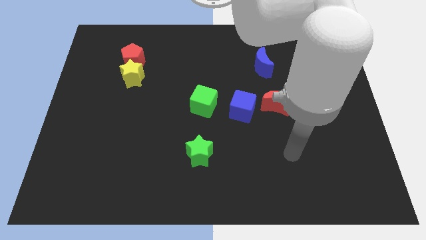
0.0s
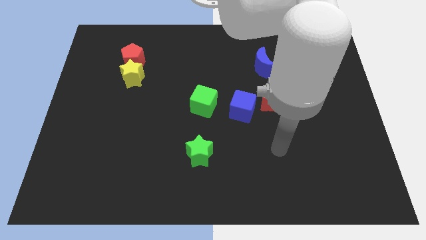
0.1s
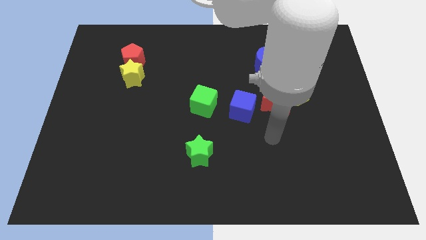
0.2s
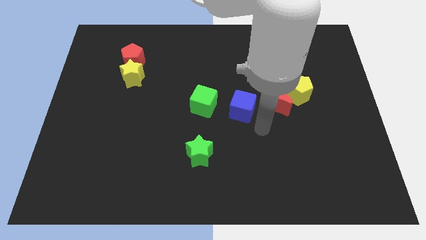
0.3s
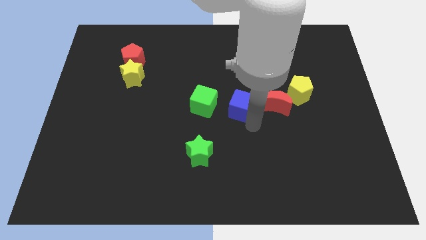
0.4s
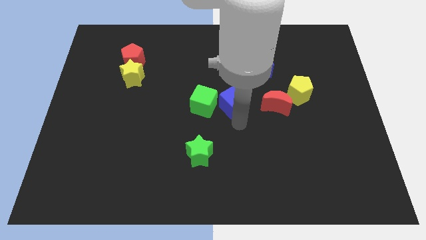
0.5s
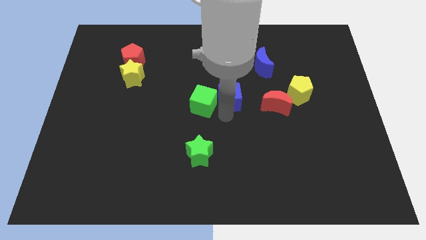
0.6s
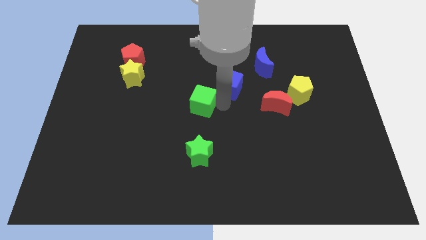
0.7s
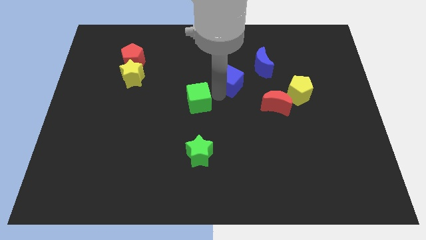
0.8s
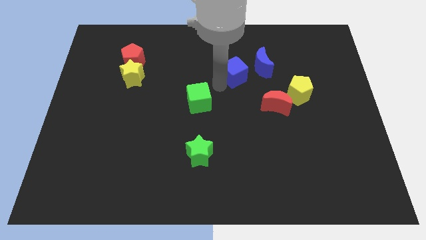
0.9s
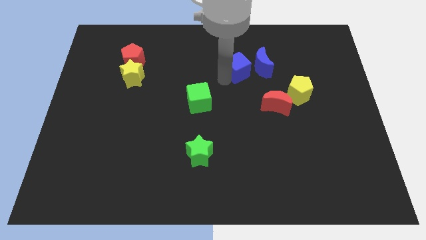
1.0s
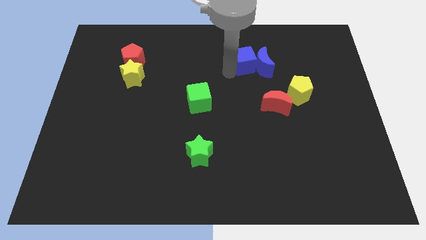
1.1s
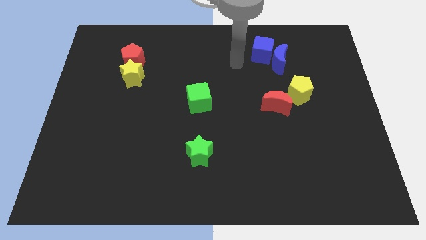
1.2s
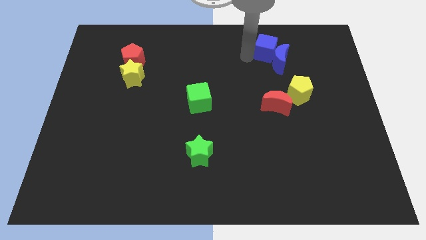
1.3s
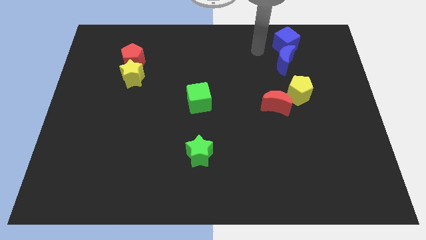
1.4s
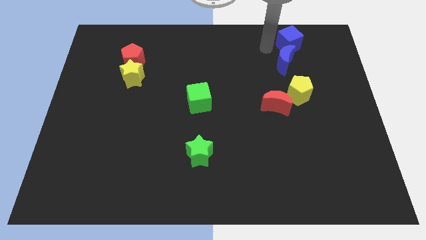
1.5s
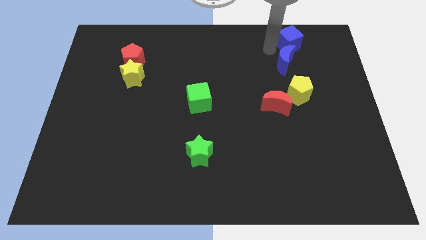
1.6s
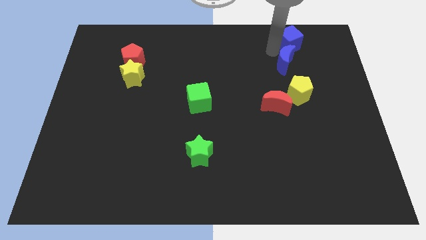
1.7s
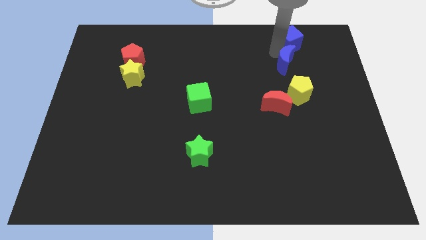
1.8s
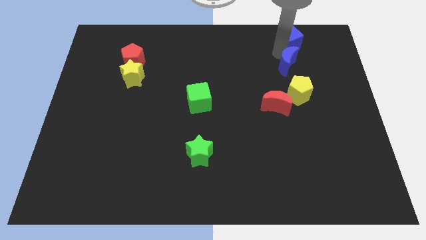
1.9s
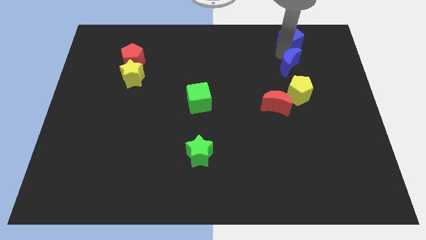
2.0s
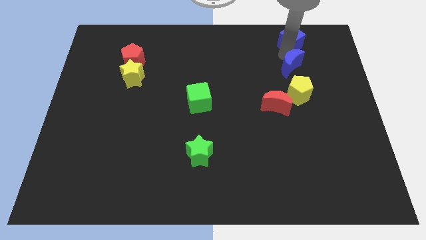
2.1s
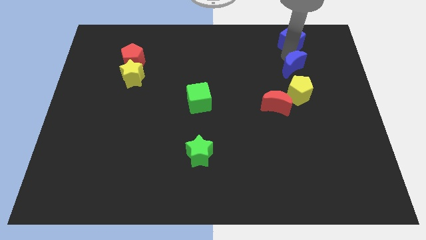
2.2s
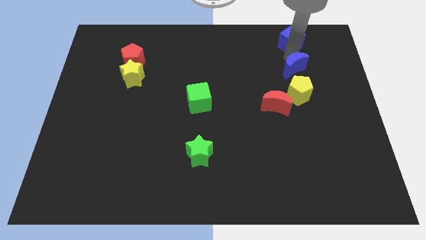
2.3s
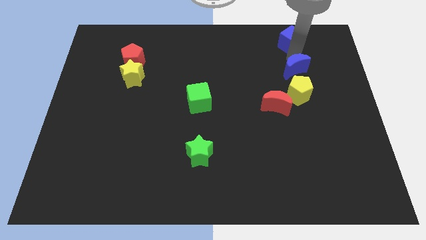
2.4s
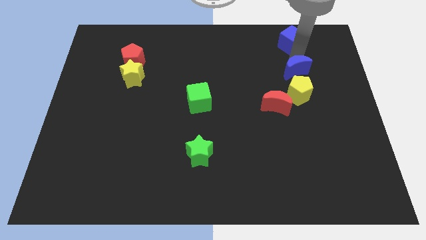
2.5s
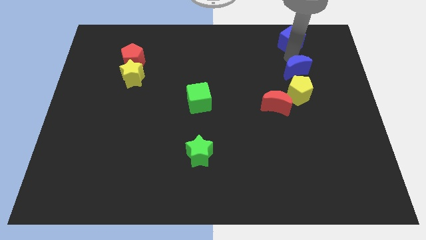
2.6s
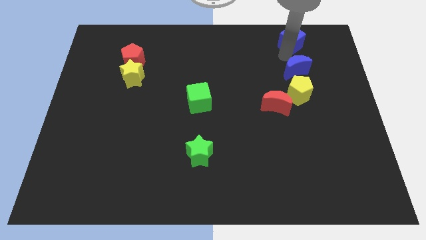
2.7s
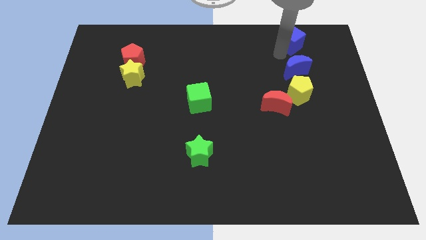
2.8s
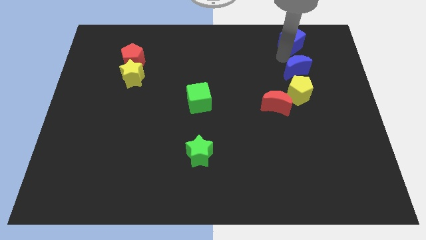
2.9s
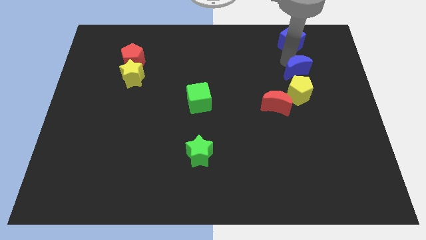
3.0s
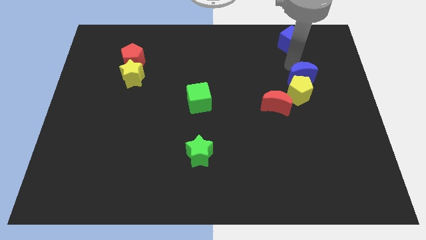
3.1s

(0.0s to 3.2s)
slightly push the blue moon diagonally downwards and right

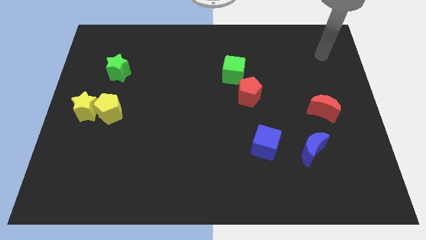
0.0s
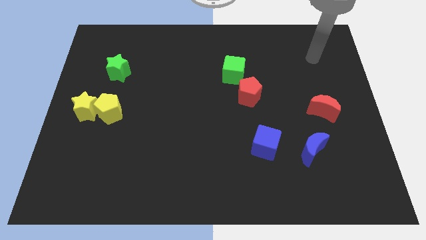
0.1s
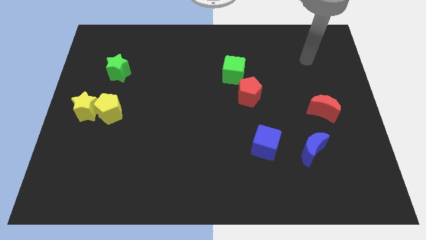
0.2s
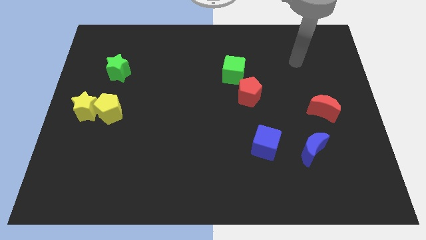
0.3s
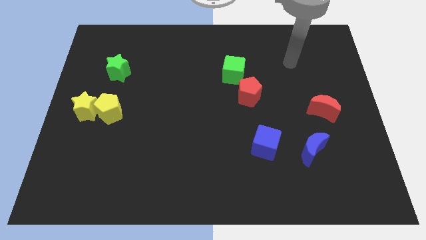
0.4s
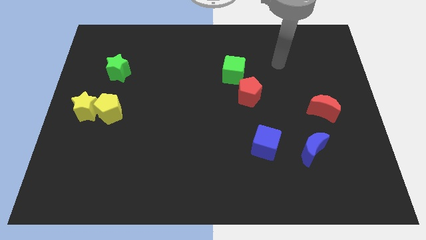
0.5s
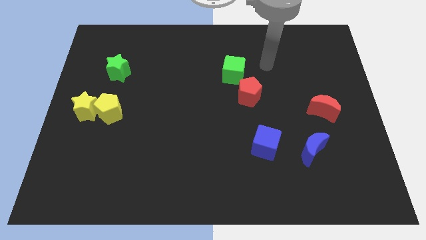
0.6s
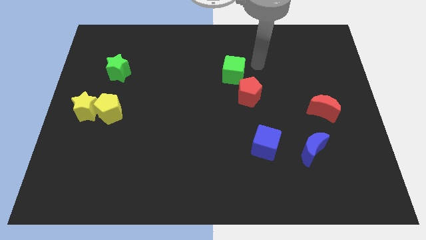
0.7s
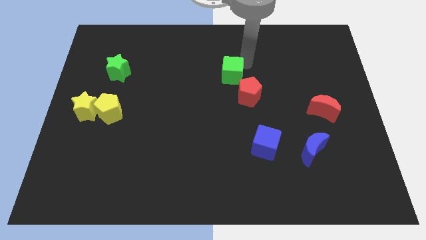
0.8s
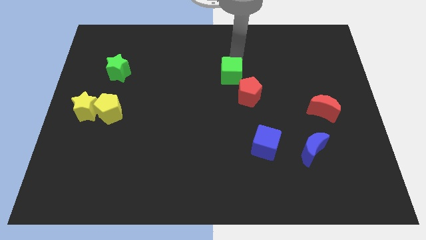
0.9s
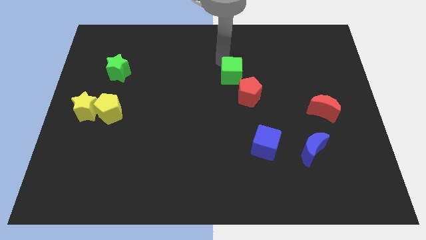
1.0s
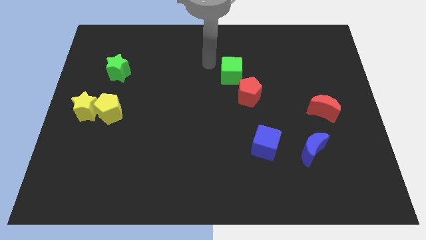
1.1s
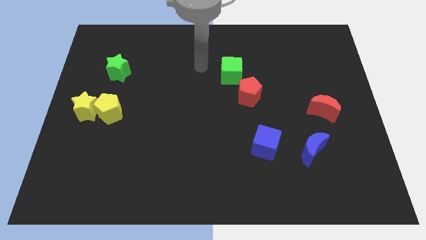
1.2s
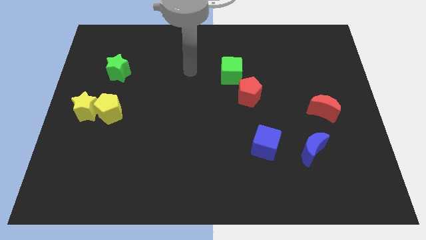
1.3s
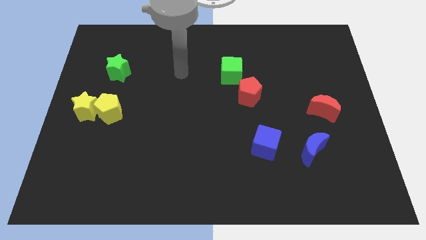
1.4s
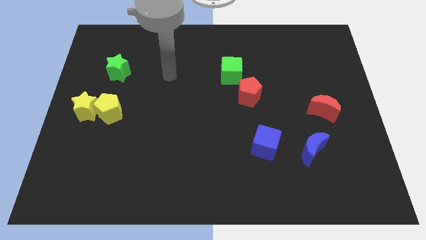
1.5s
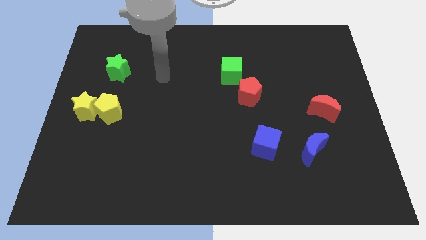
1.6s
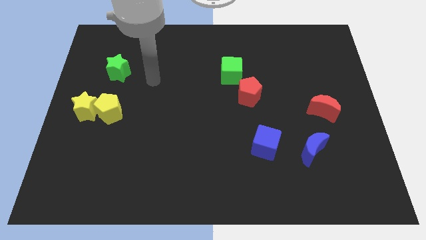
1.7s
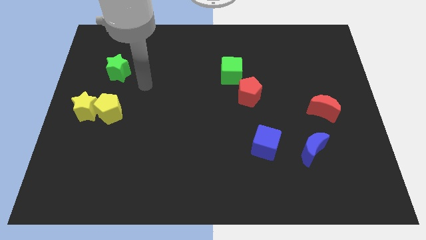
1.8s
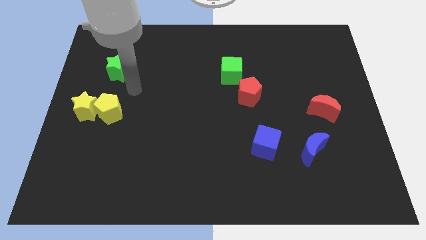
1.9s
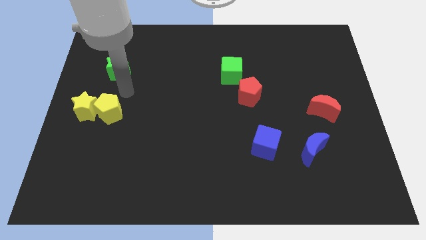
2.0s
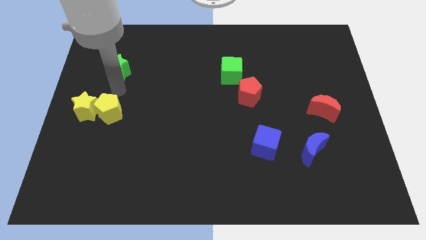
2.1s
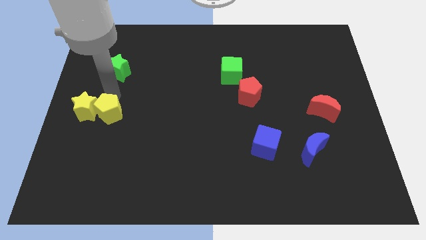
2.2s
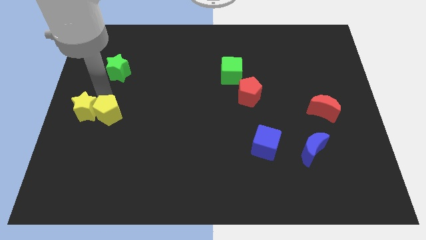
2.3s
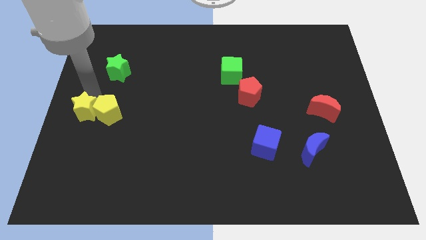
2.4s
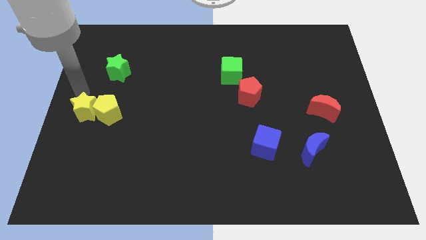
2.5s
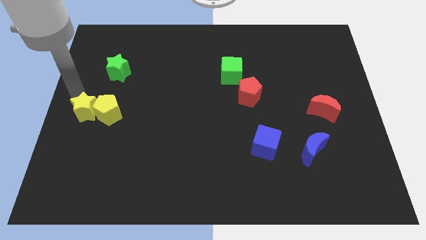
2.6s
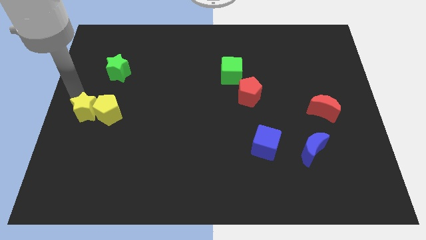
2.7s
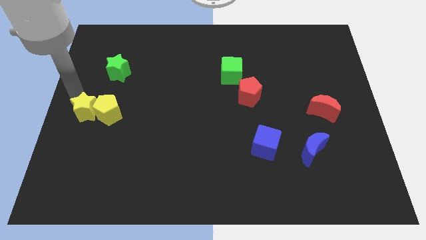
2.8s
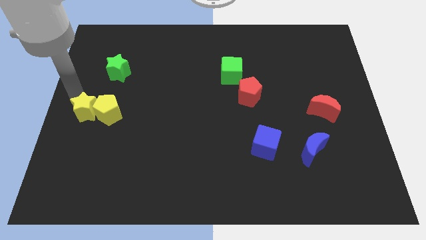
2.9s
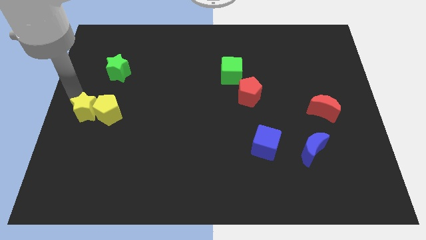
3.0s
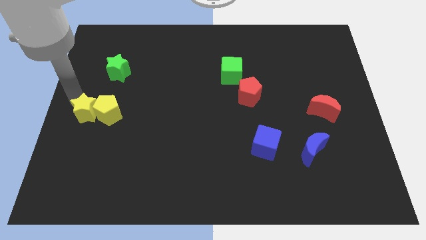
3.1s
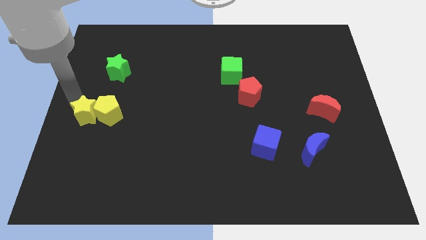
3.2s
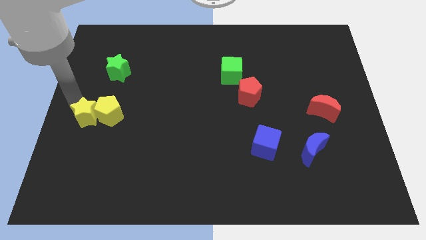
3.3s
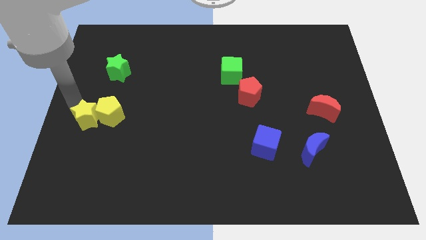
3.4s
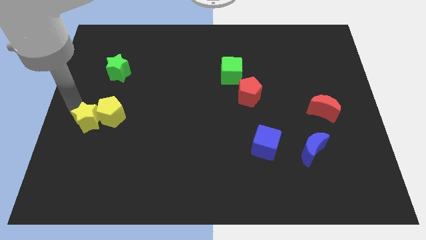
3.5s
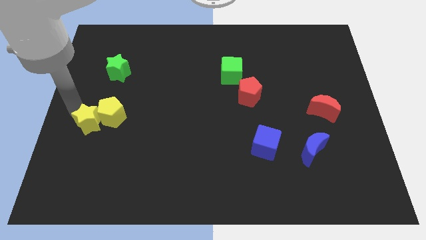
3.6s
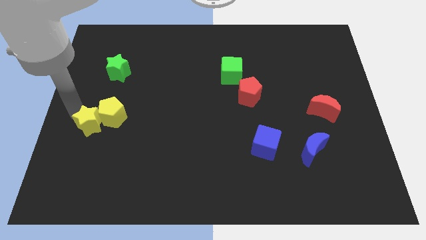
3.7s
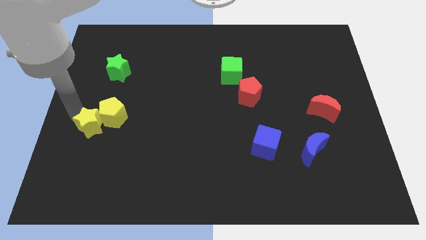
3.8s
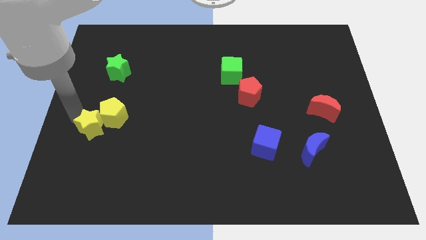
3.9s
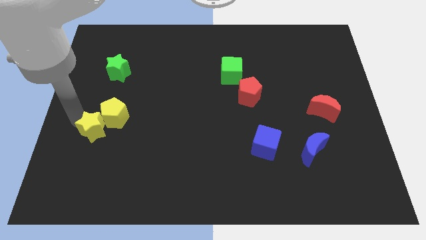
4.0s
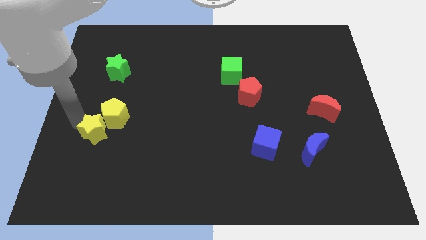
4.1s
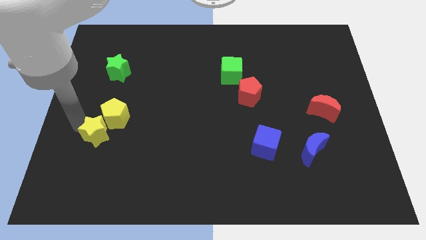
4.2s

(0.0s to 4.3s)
push the yellow star slightly down and right

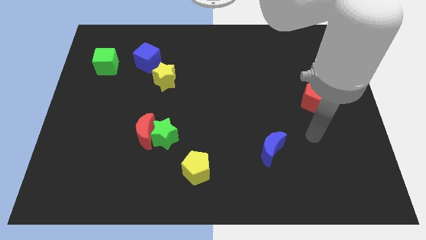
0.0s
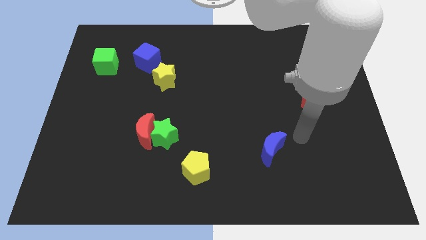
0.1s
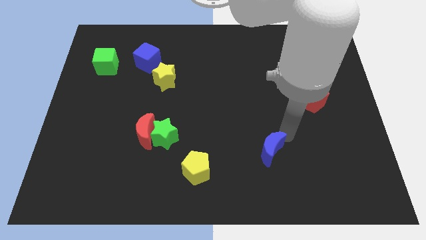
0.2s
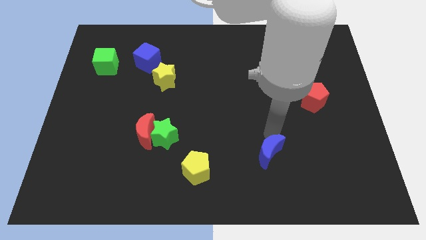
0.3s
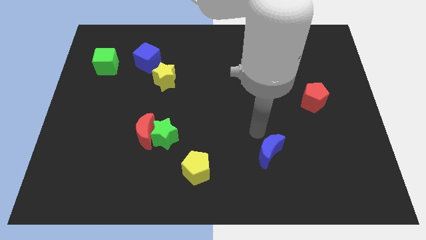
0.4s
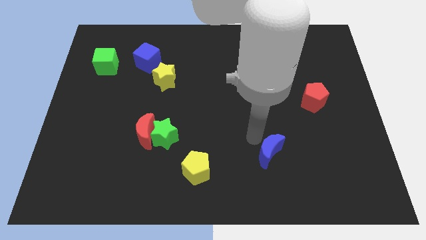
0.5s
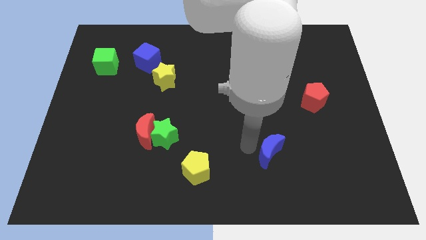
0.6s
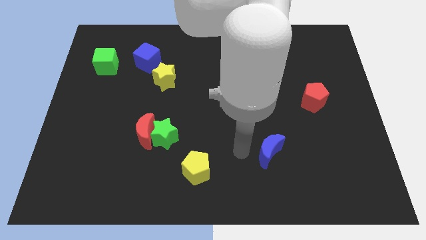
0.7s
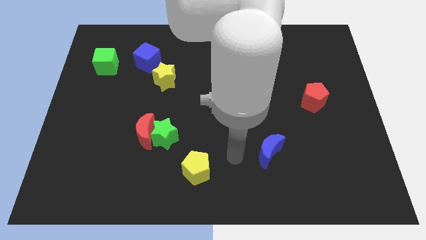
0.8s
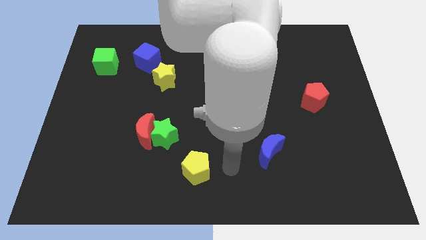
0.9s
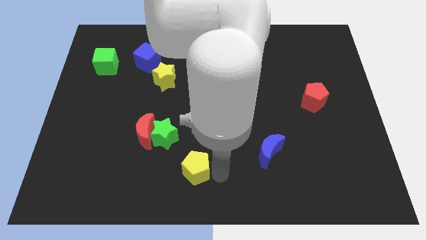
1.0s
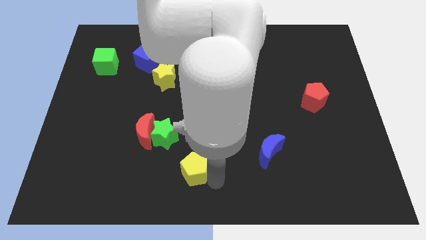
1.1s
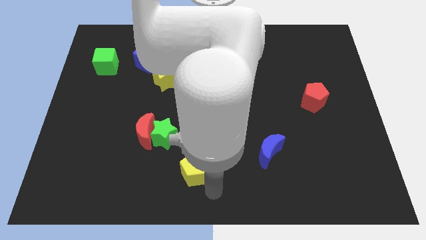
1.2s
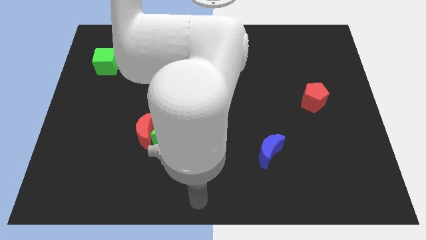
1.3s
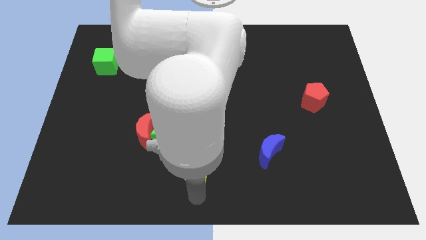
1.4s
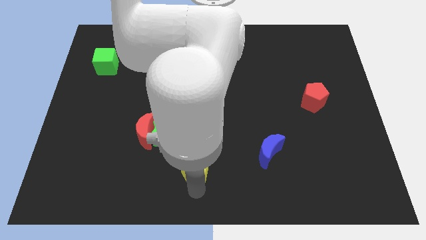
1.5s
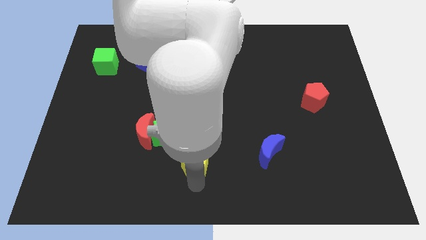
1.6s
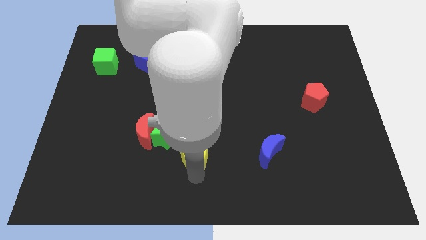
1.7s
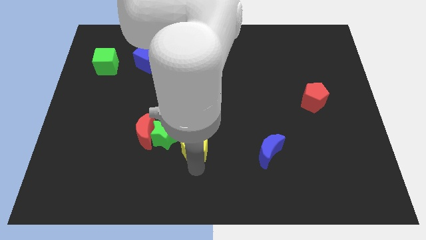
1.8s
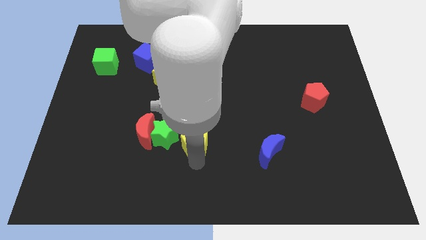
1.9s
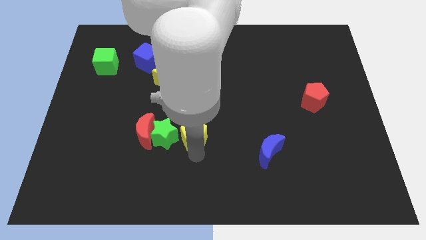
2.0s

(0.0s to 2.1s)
move the yellow pentagon upwards a little
